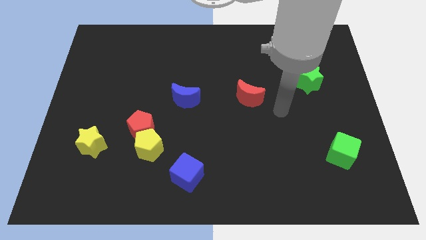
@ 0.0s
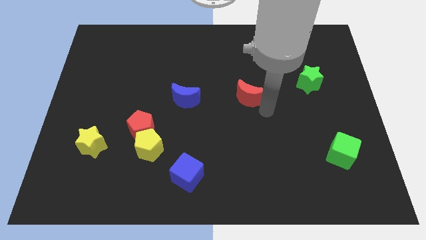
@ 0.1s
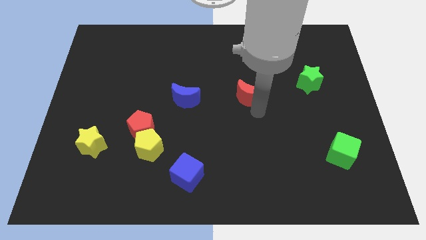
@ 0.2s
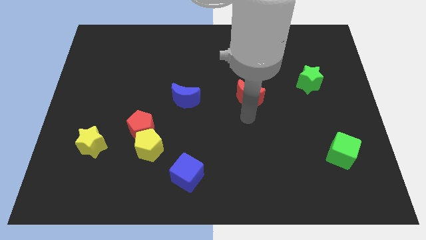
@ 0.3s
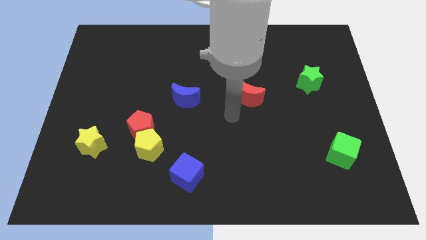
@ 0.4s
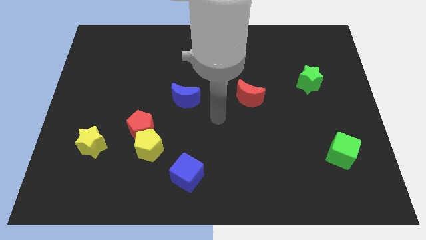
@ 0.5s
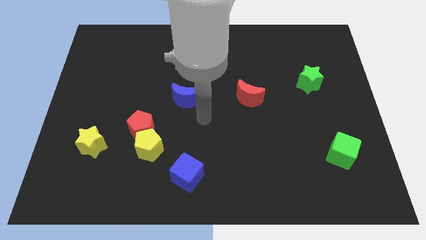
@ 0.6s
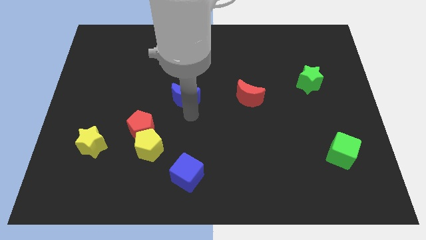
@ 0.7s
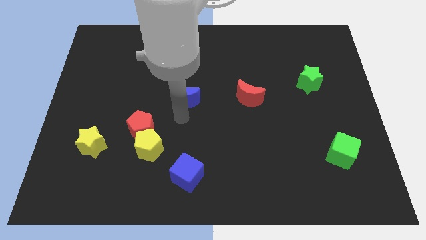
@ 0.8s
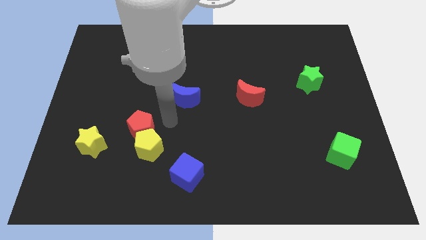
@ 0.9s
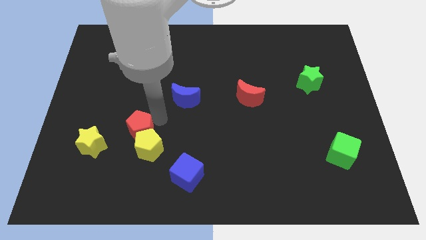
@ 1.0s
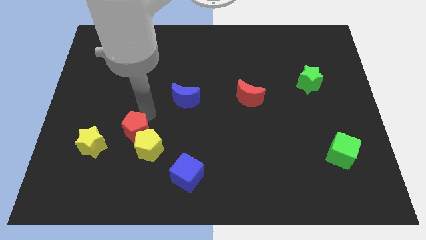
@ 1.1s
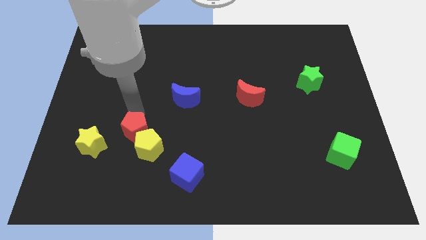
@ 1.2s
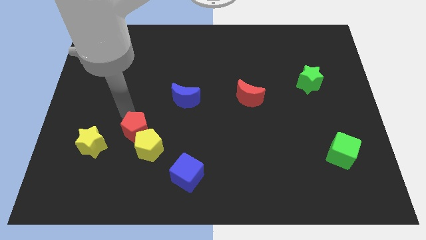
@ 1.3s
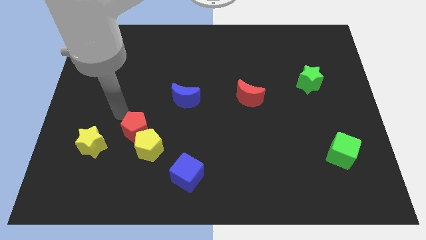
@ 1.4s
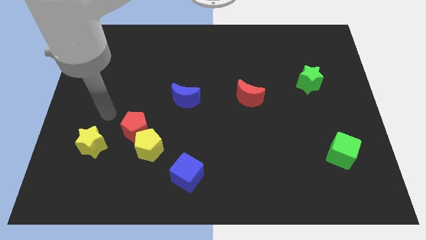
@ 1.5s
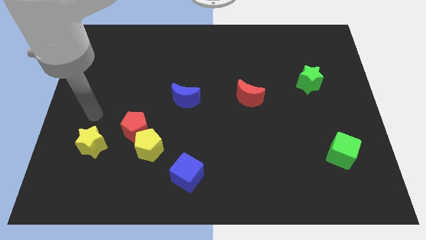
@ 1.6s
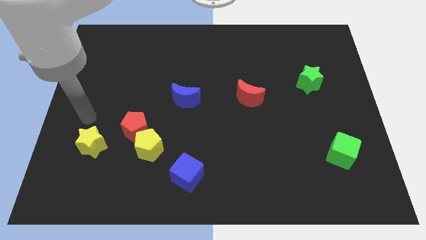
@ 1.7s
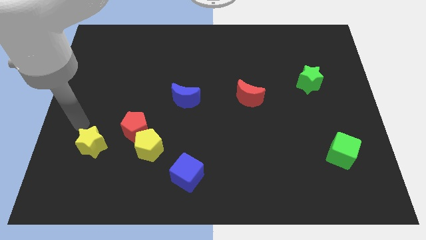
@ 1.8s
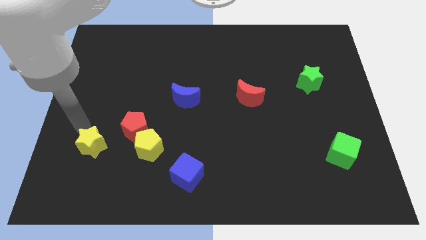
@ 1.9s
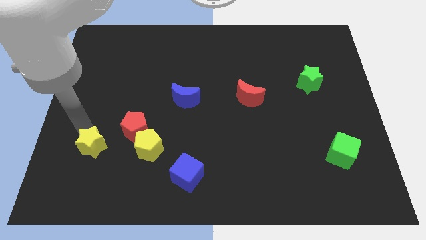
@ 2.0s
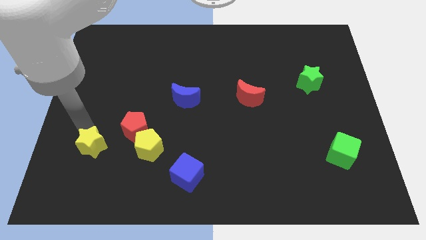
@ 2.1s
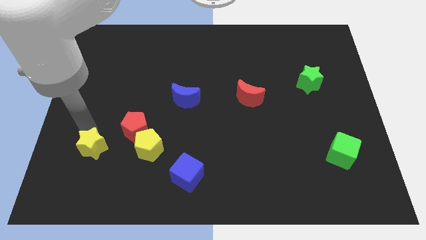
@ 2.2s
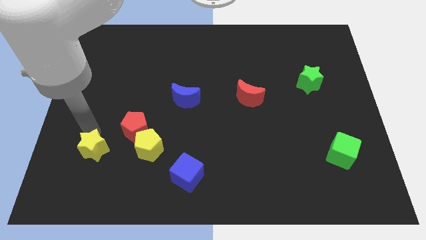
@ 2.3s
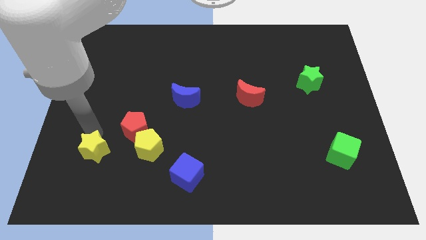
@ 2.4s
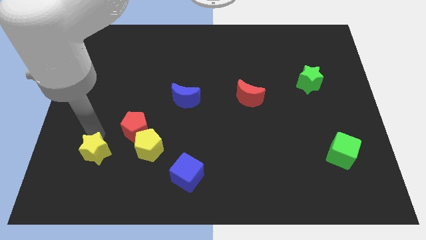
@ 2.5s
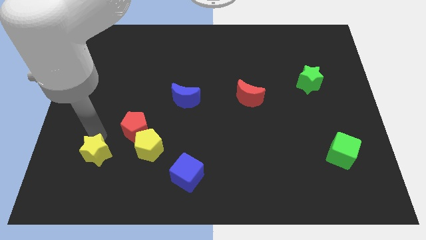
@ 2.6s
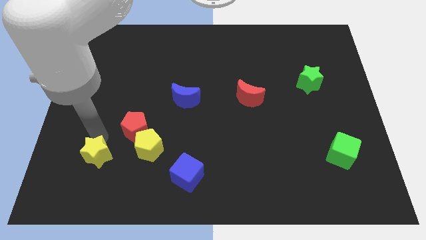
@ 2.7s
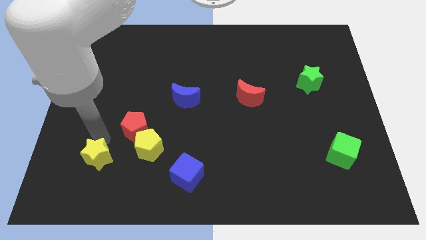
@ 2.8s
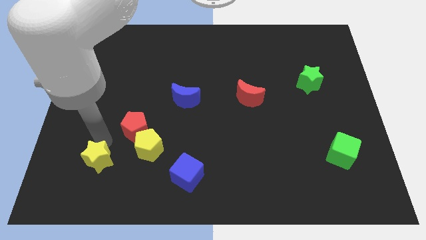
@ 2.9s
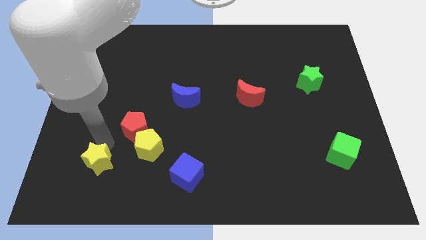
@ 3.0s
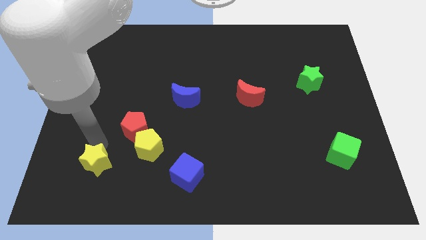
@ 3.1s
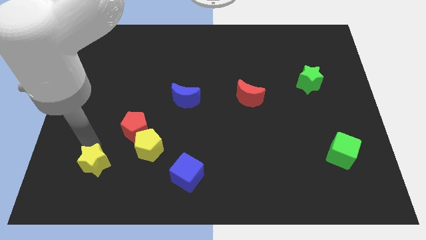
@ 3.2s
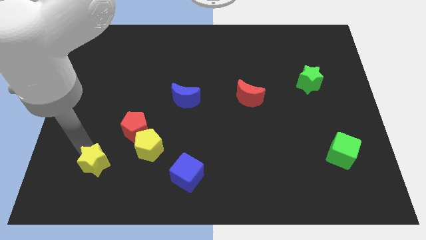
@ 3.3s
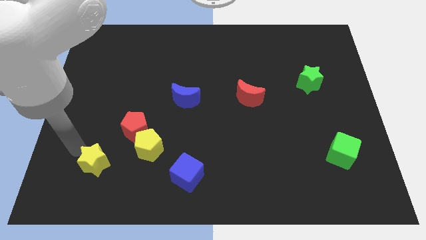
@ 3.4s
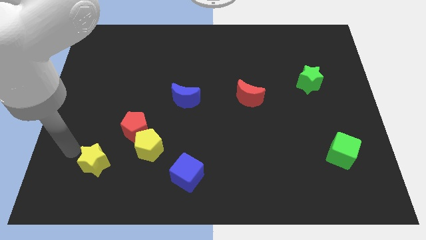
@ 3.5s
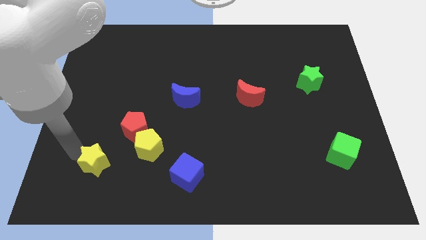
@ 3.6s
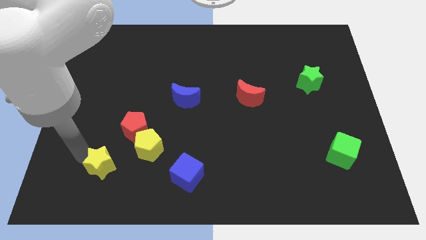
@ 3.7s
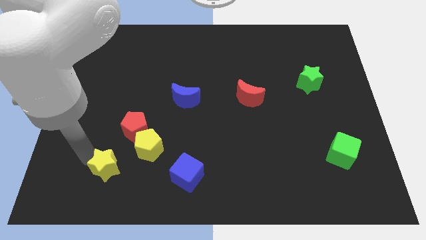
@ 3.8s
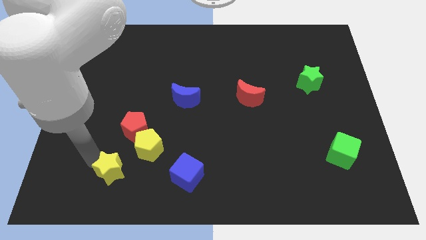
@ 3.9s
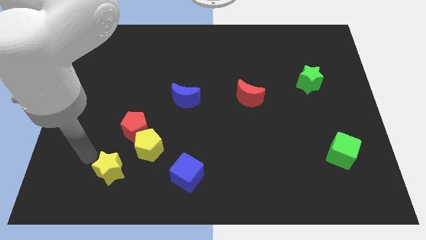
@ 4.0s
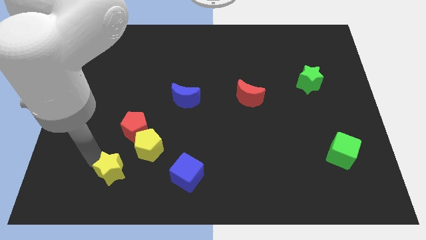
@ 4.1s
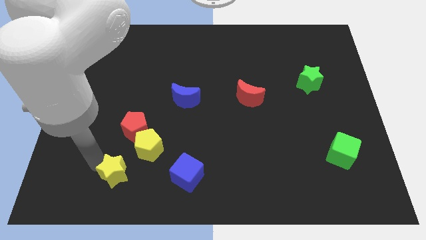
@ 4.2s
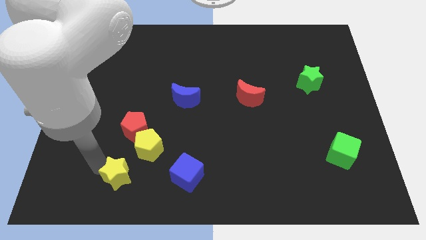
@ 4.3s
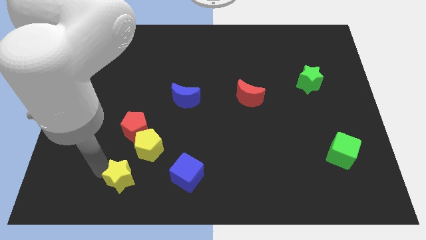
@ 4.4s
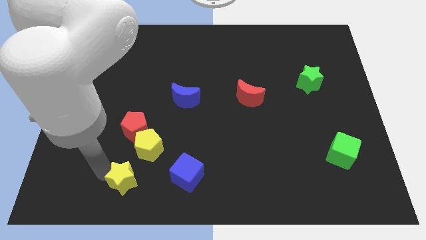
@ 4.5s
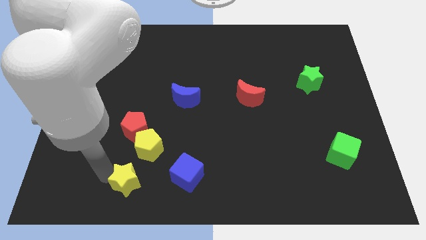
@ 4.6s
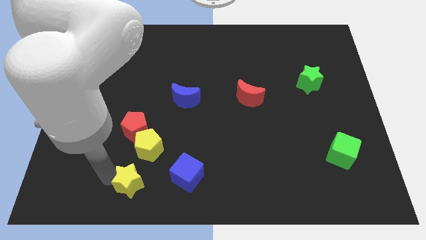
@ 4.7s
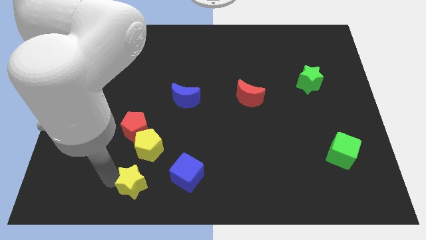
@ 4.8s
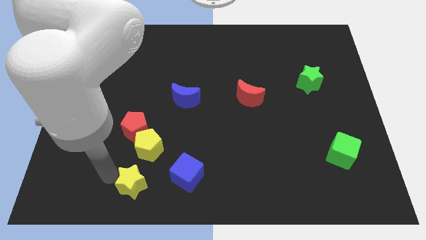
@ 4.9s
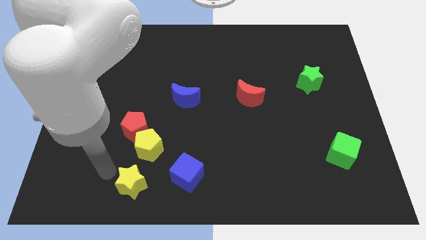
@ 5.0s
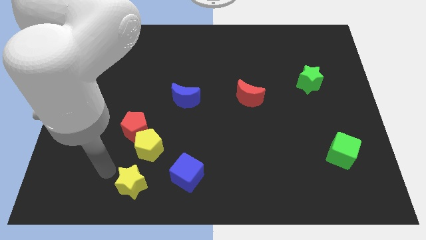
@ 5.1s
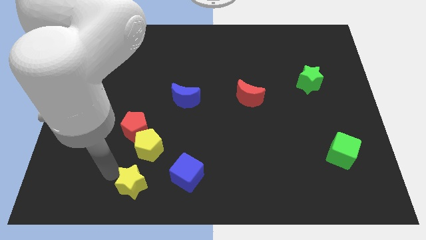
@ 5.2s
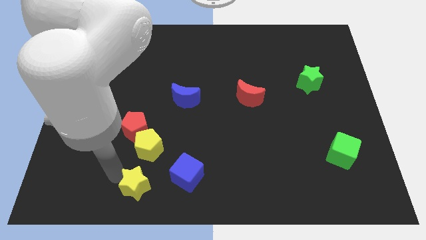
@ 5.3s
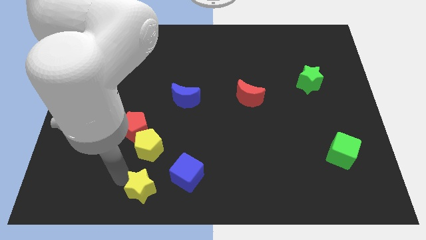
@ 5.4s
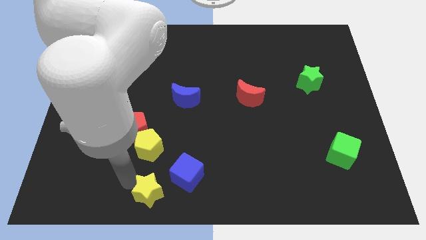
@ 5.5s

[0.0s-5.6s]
put the yellow star to the bottom
